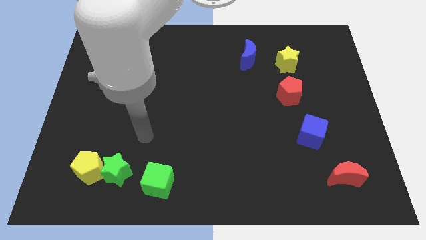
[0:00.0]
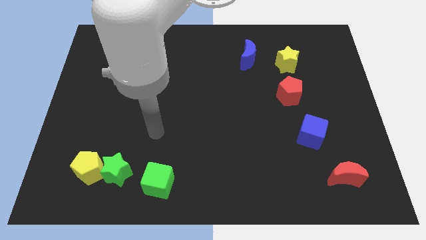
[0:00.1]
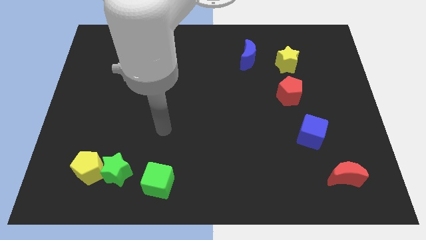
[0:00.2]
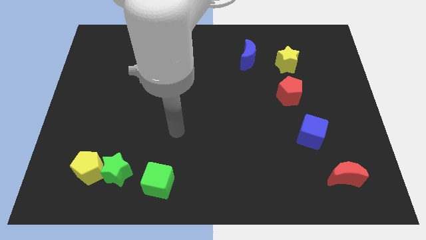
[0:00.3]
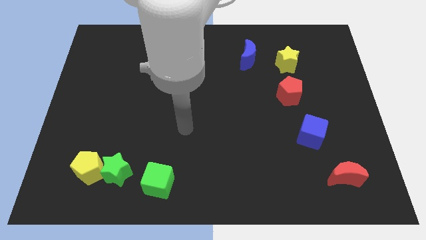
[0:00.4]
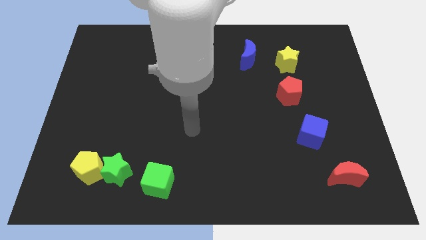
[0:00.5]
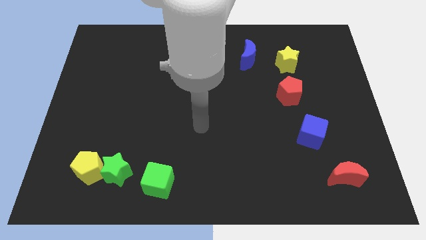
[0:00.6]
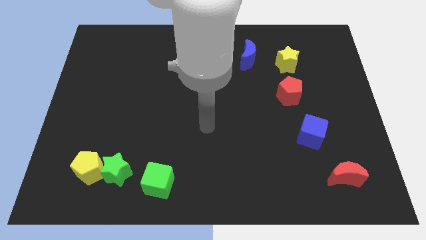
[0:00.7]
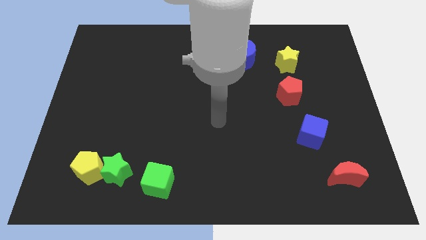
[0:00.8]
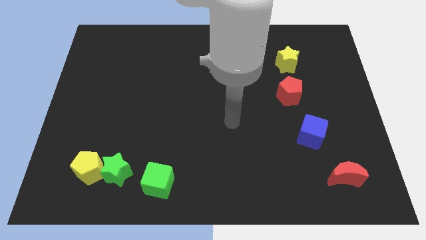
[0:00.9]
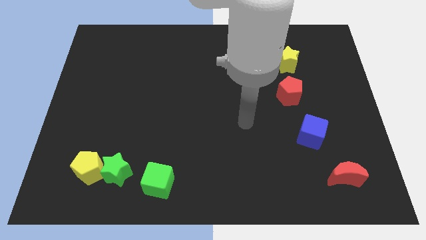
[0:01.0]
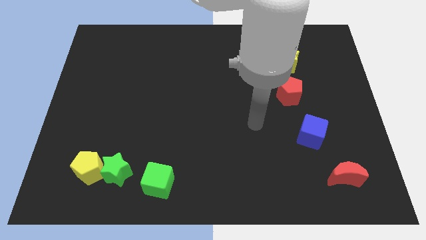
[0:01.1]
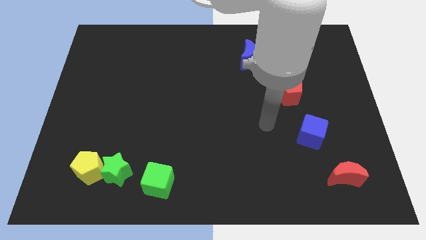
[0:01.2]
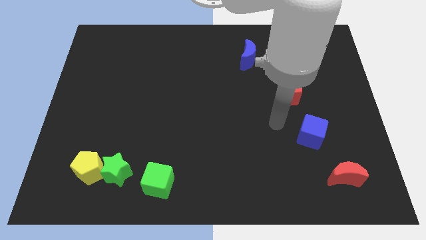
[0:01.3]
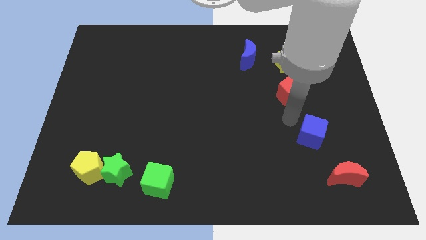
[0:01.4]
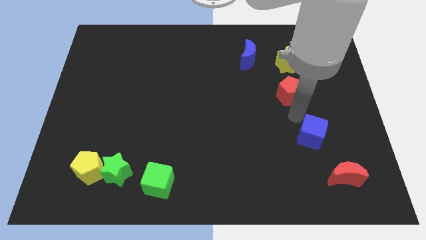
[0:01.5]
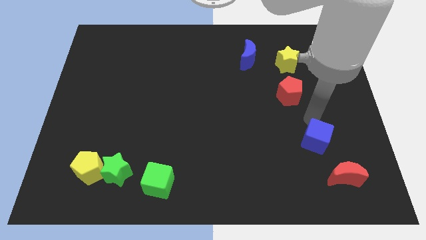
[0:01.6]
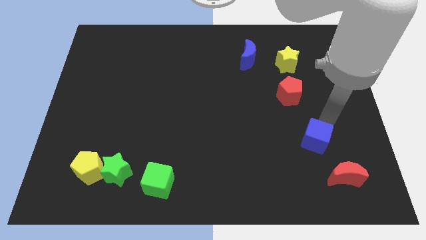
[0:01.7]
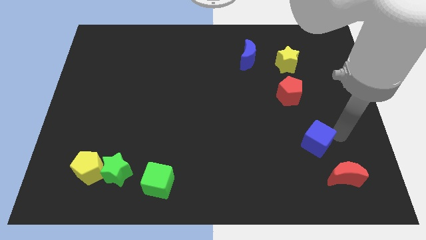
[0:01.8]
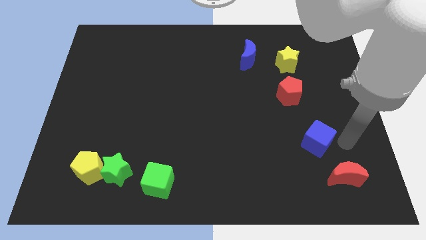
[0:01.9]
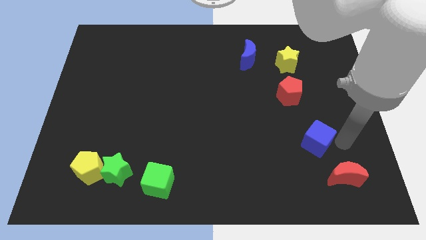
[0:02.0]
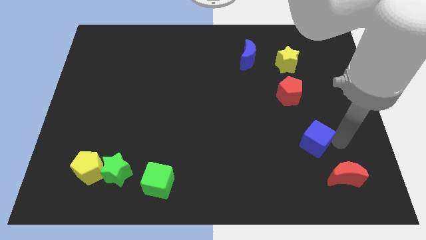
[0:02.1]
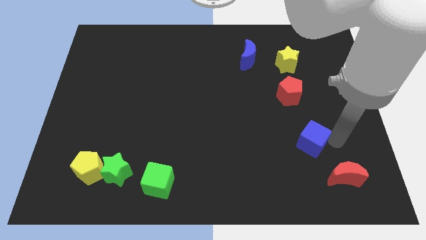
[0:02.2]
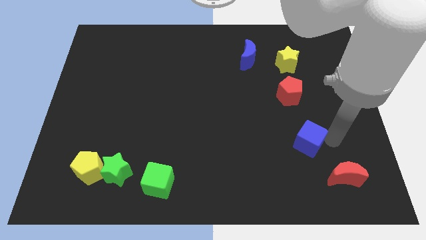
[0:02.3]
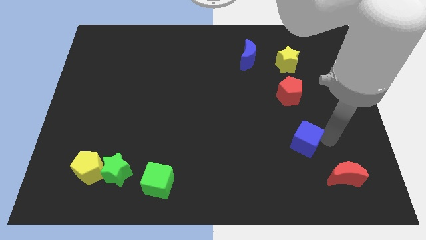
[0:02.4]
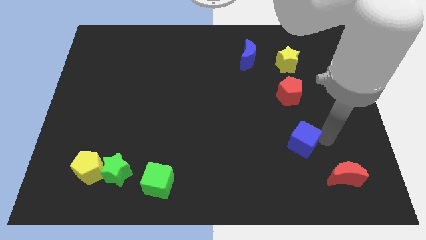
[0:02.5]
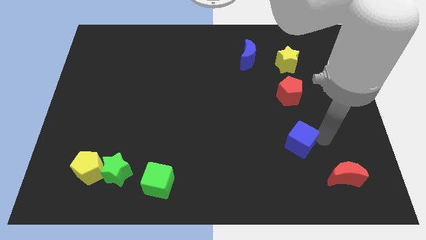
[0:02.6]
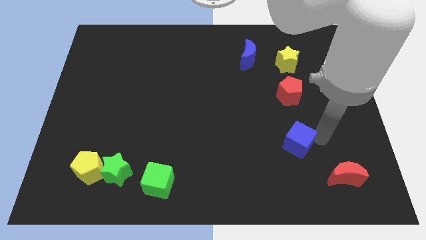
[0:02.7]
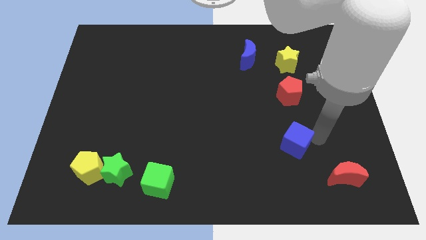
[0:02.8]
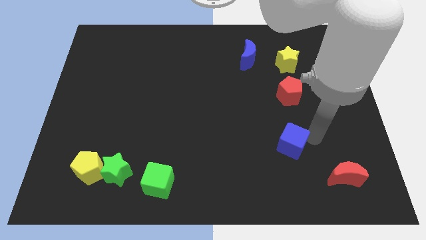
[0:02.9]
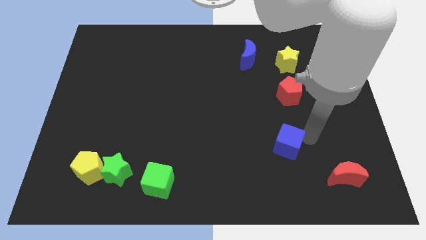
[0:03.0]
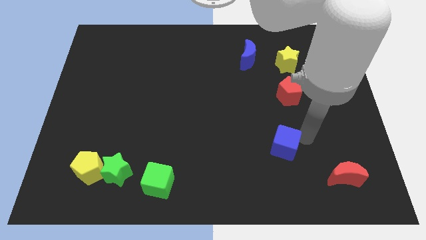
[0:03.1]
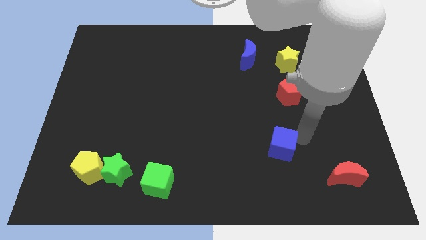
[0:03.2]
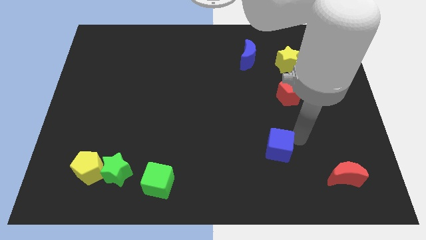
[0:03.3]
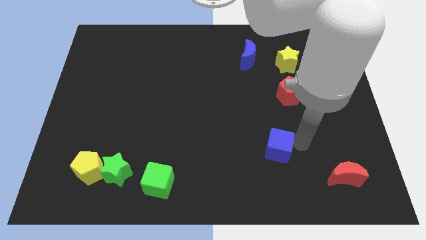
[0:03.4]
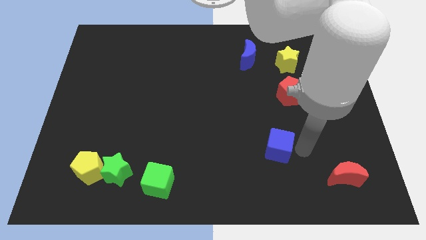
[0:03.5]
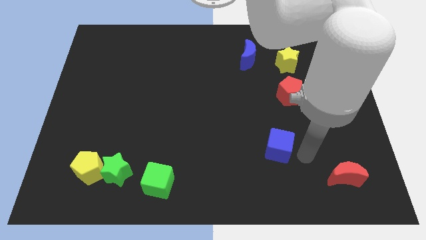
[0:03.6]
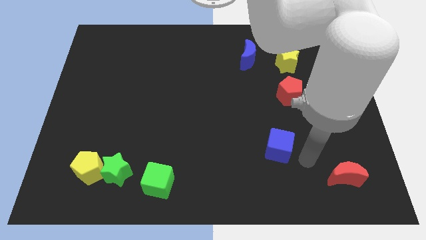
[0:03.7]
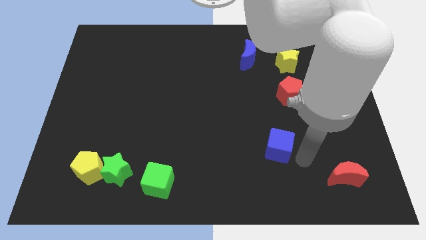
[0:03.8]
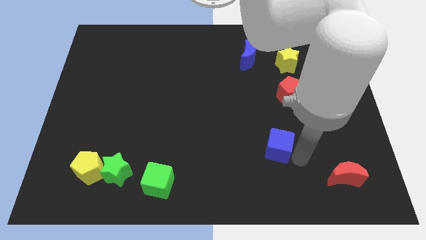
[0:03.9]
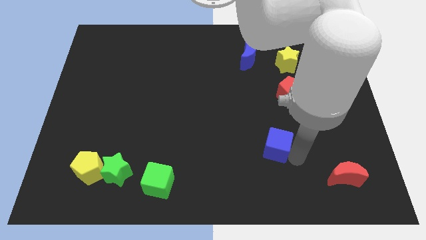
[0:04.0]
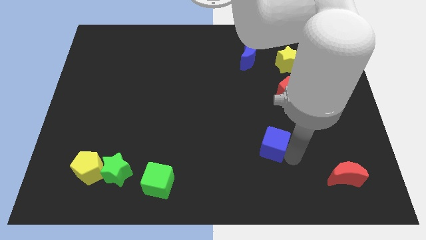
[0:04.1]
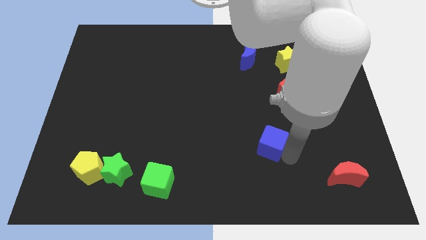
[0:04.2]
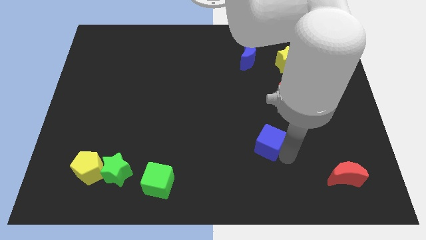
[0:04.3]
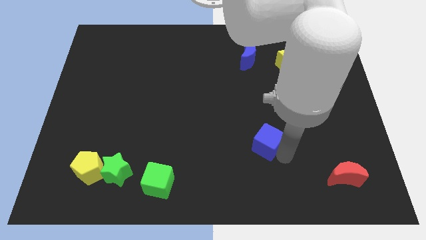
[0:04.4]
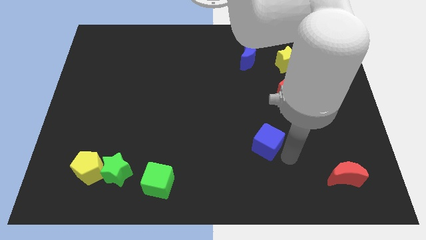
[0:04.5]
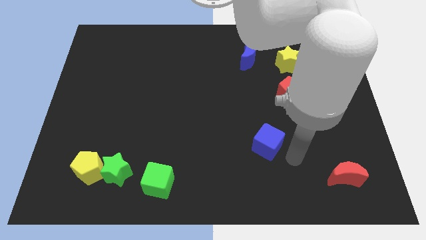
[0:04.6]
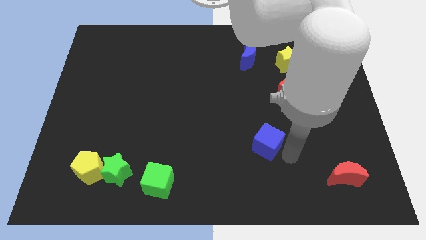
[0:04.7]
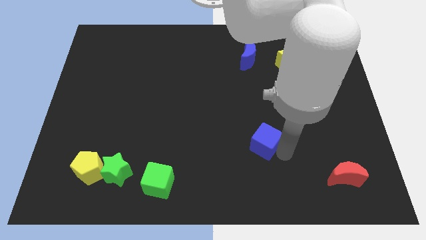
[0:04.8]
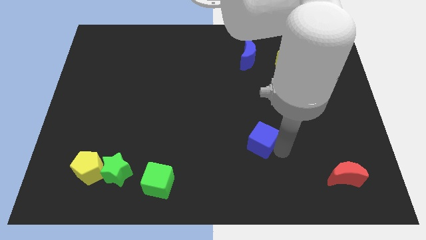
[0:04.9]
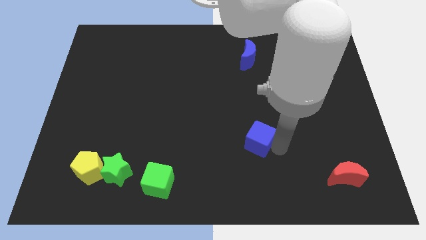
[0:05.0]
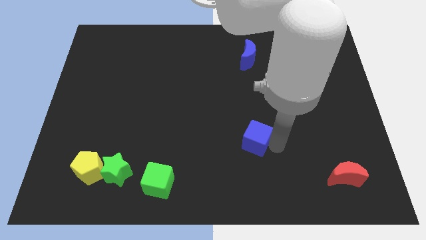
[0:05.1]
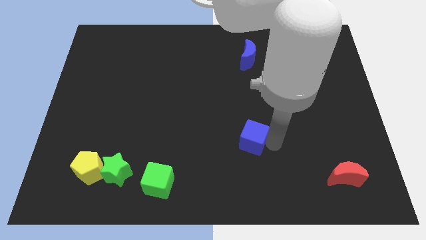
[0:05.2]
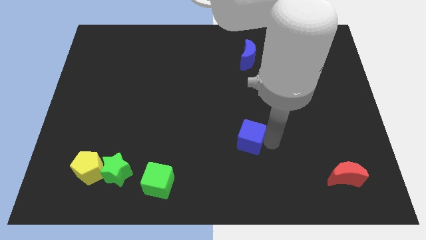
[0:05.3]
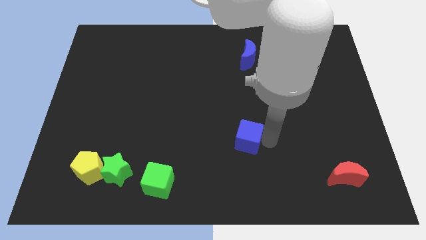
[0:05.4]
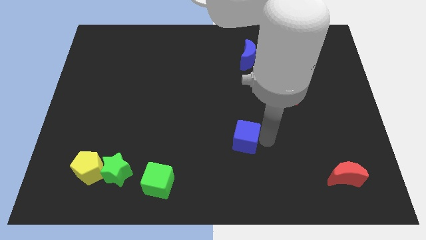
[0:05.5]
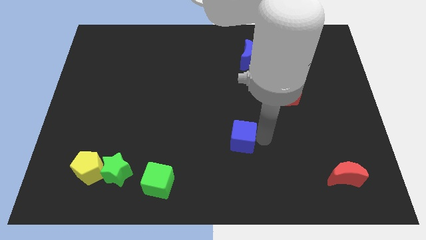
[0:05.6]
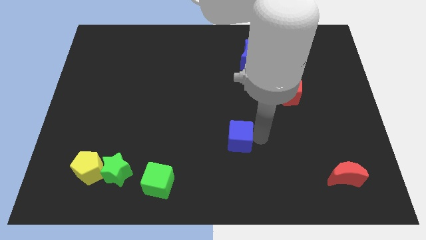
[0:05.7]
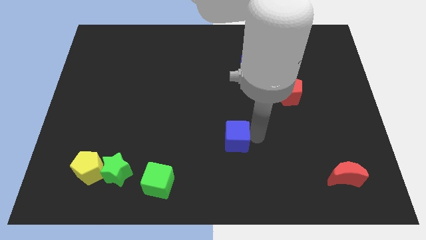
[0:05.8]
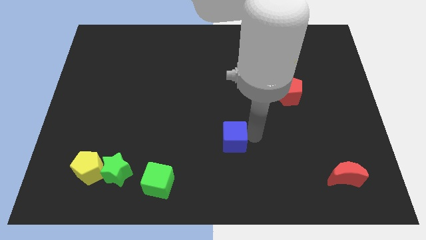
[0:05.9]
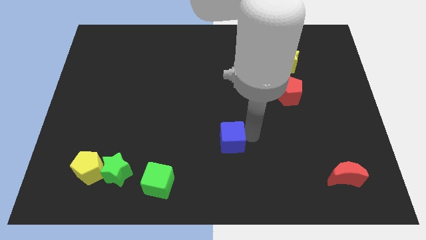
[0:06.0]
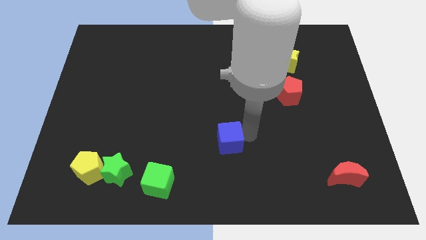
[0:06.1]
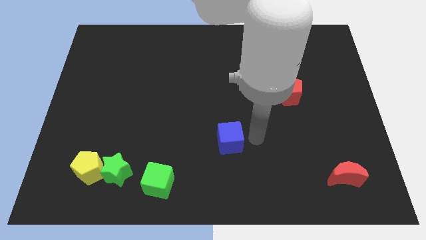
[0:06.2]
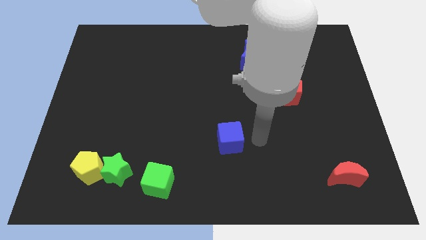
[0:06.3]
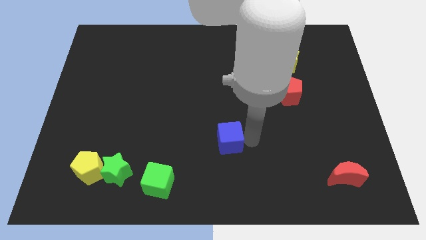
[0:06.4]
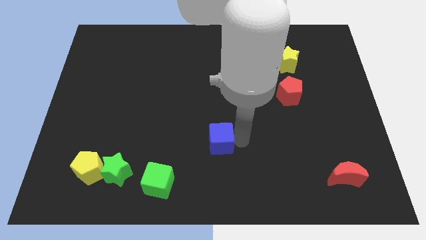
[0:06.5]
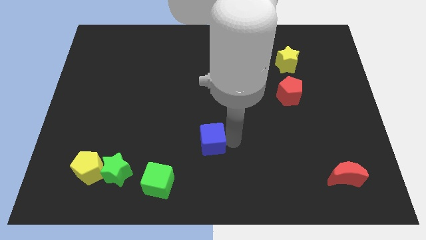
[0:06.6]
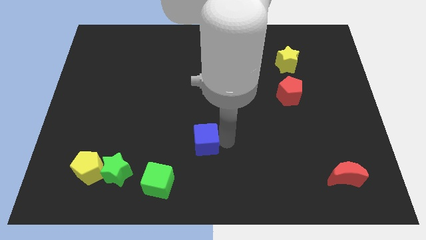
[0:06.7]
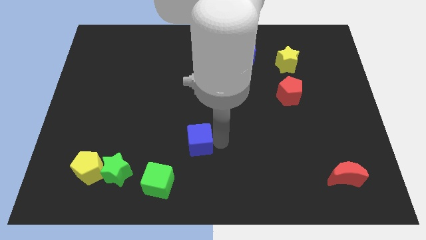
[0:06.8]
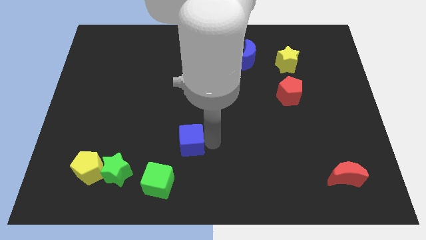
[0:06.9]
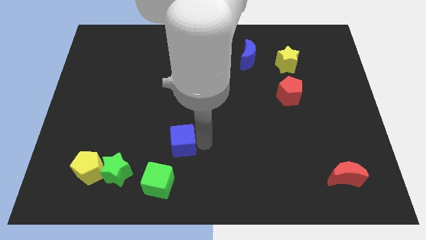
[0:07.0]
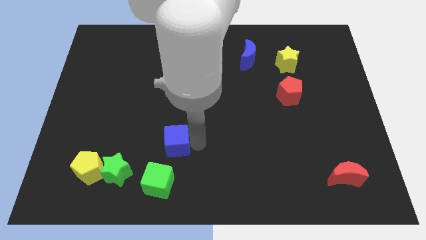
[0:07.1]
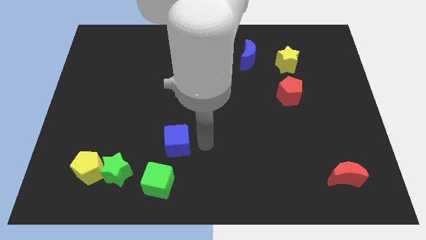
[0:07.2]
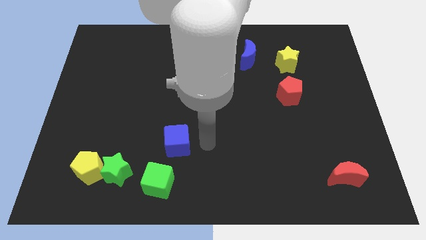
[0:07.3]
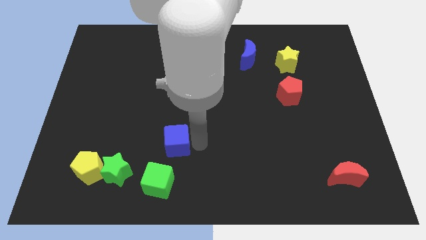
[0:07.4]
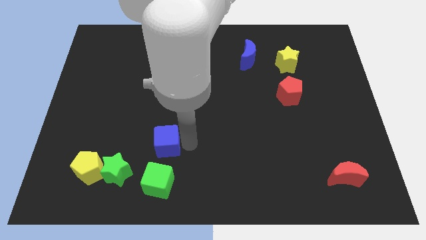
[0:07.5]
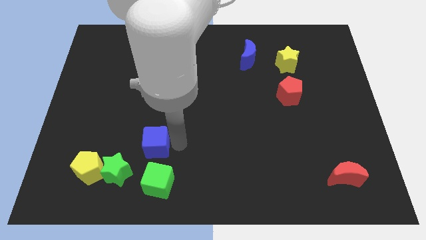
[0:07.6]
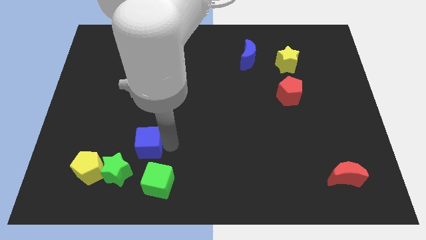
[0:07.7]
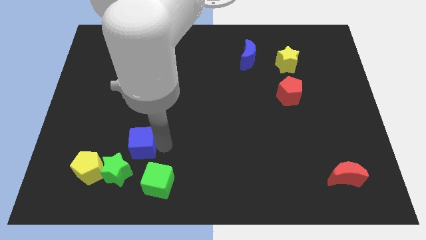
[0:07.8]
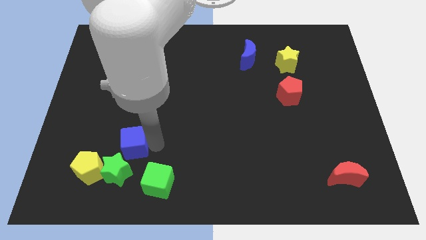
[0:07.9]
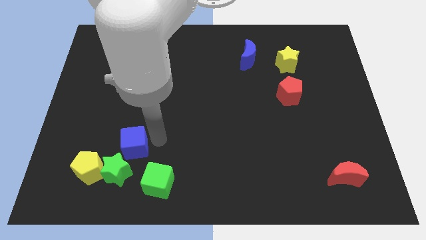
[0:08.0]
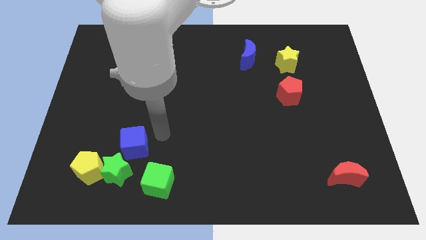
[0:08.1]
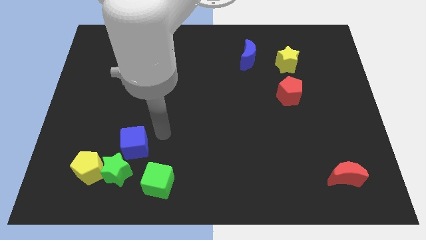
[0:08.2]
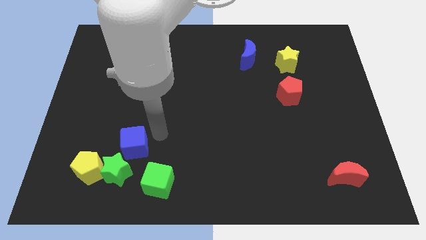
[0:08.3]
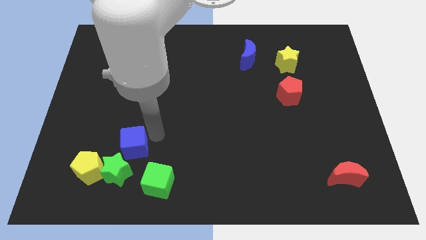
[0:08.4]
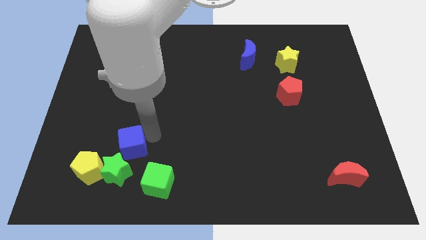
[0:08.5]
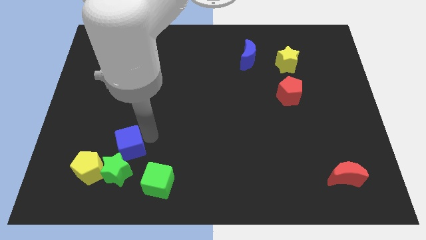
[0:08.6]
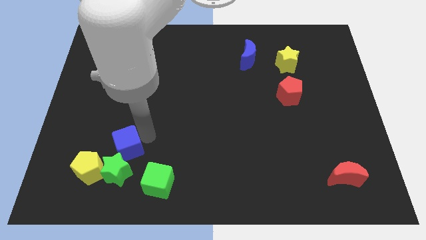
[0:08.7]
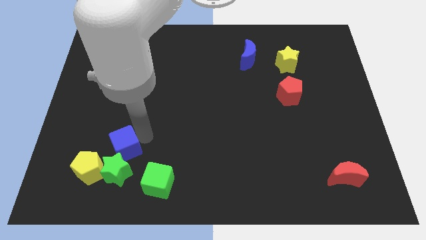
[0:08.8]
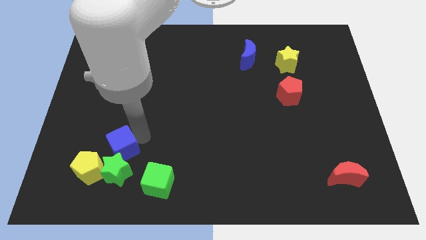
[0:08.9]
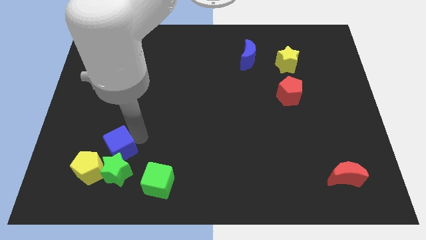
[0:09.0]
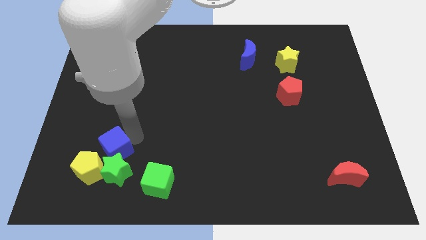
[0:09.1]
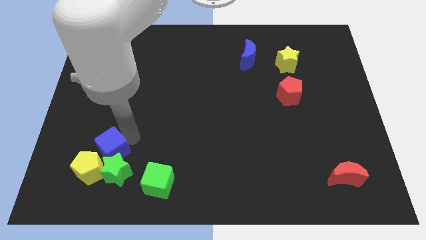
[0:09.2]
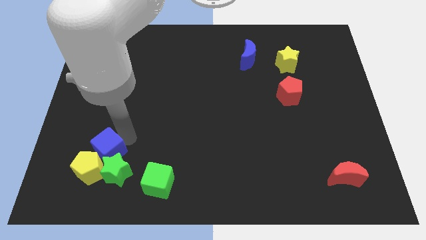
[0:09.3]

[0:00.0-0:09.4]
move the blue cube to the yellow pentagon
